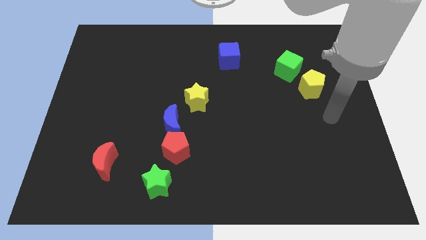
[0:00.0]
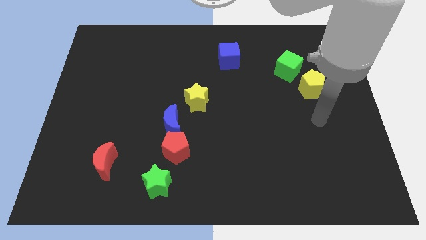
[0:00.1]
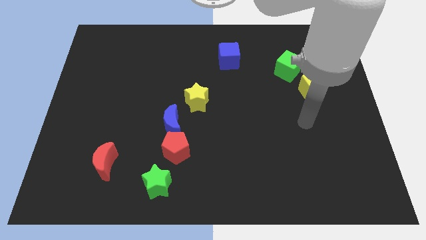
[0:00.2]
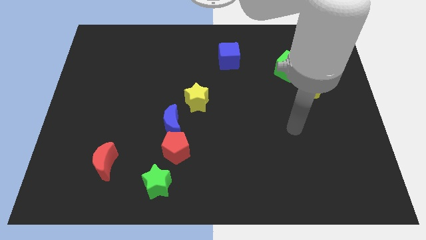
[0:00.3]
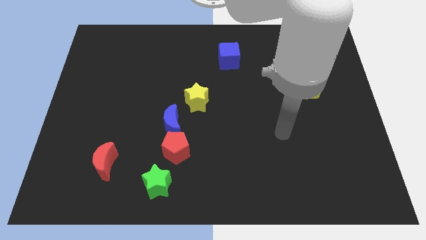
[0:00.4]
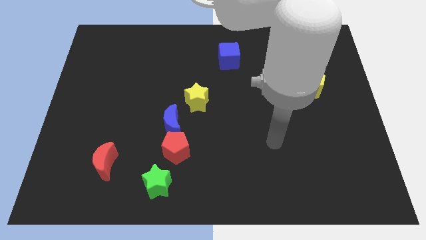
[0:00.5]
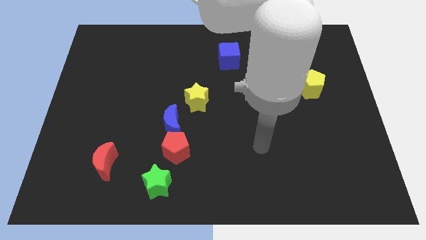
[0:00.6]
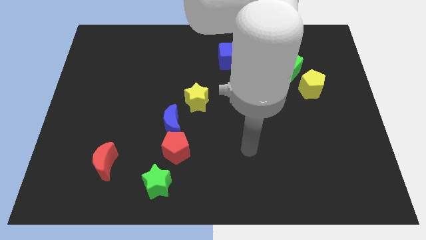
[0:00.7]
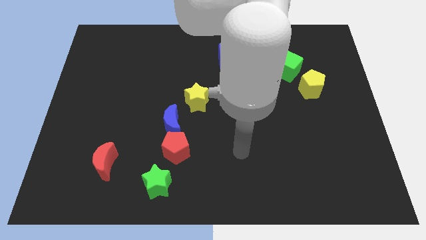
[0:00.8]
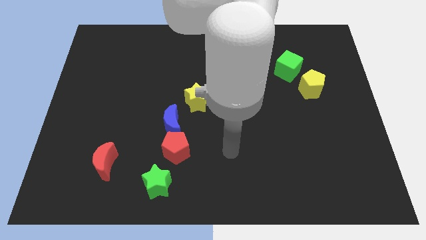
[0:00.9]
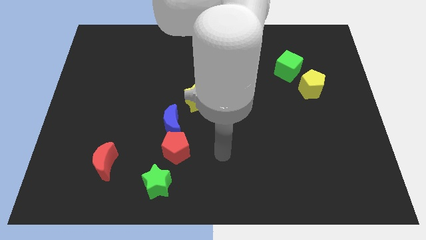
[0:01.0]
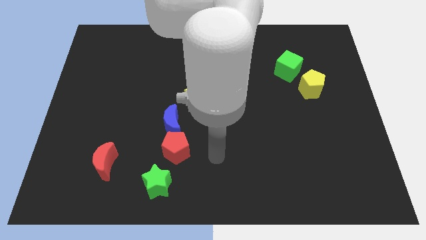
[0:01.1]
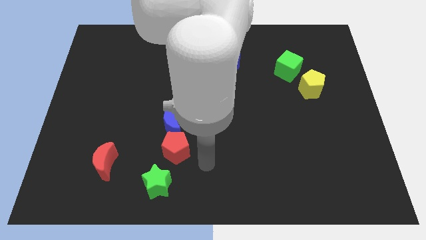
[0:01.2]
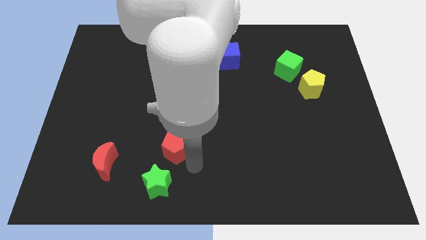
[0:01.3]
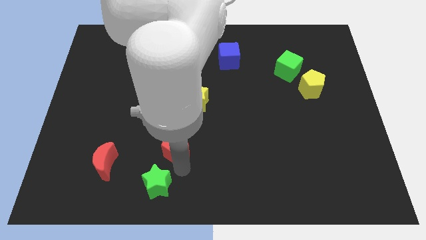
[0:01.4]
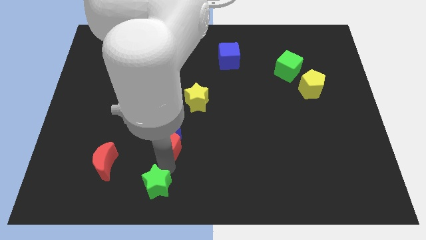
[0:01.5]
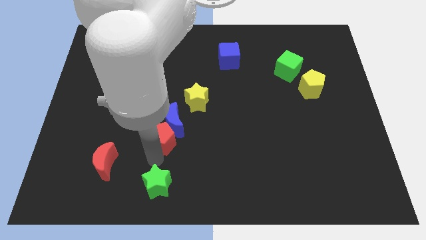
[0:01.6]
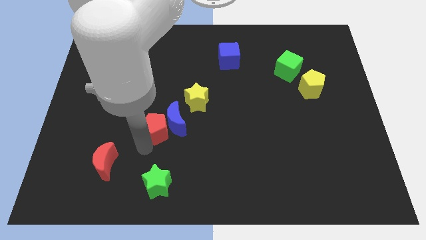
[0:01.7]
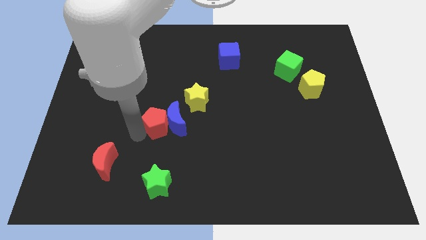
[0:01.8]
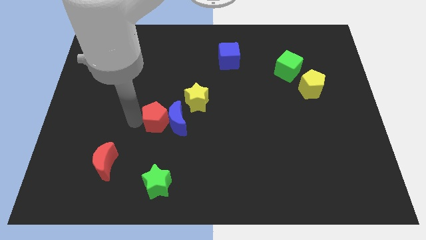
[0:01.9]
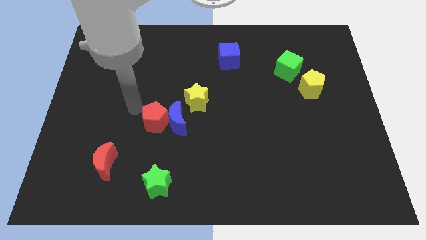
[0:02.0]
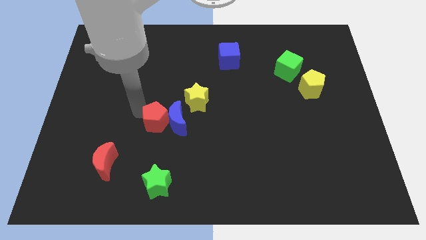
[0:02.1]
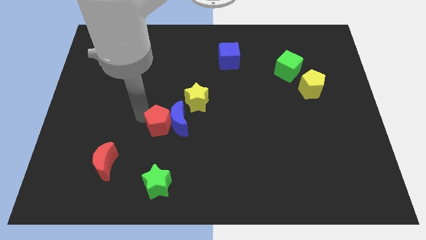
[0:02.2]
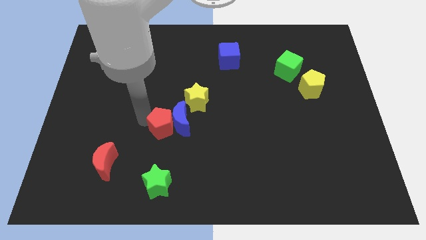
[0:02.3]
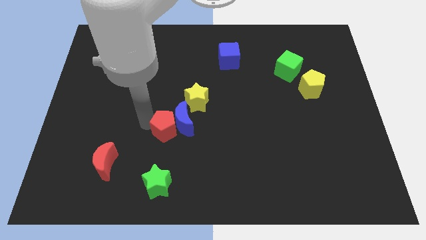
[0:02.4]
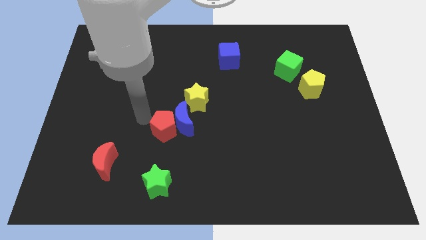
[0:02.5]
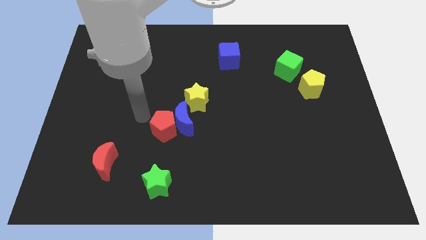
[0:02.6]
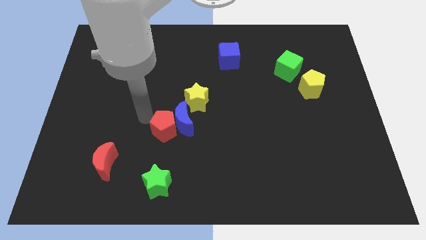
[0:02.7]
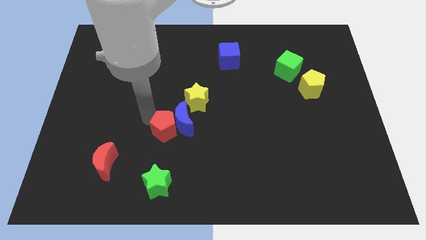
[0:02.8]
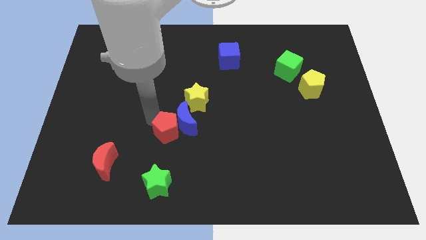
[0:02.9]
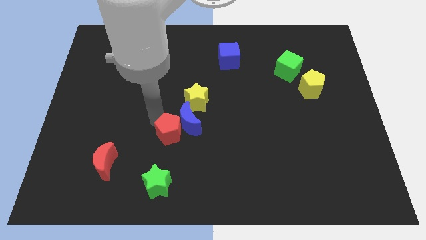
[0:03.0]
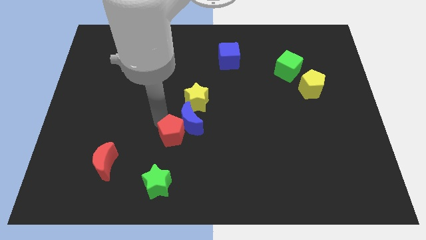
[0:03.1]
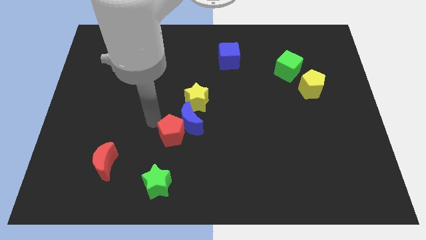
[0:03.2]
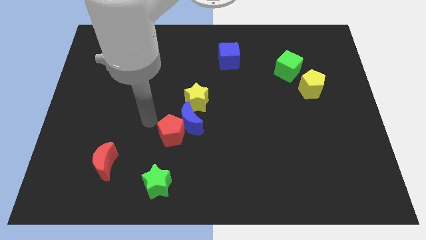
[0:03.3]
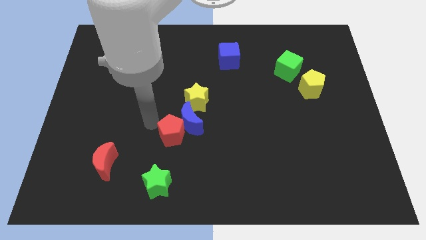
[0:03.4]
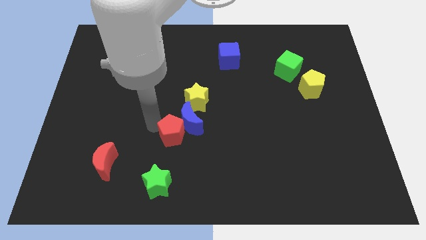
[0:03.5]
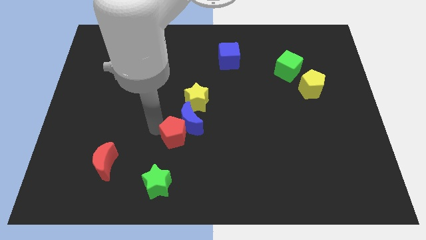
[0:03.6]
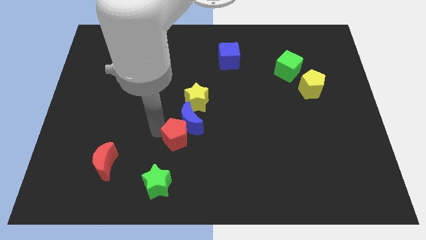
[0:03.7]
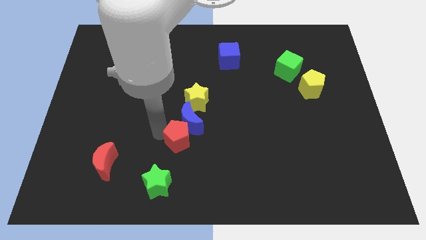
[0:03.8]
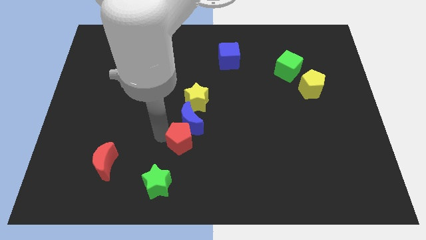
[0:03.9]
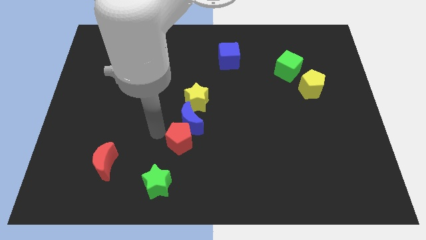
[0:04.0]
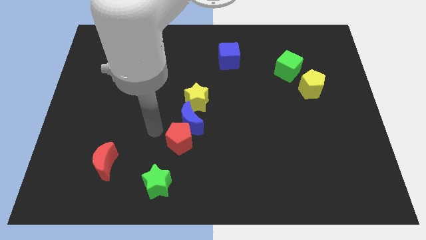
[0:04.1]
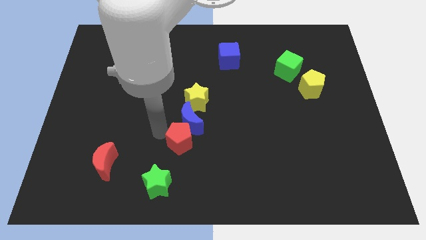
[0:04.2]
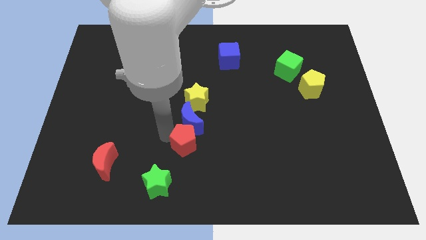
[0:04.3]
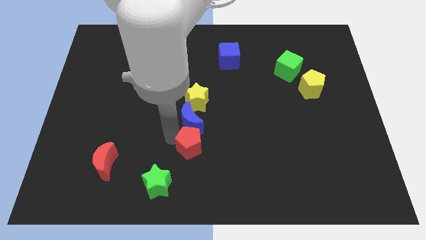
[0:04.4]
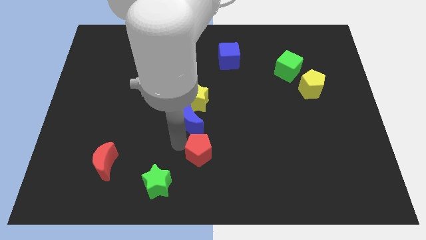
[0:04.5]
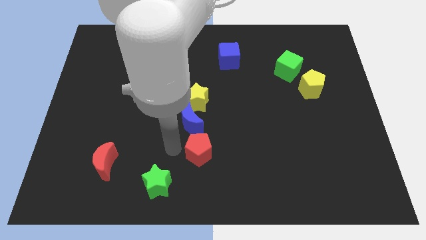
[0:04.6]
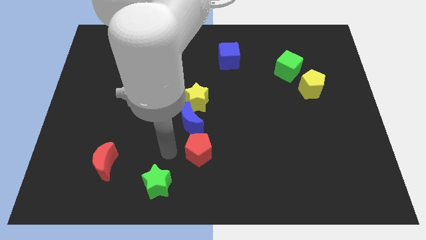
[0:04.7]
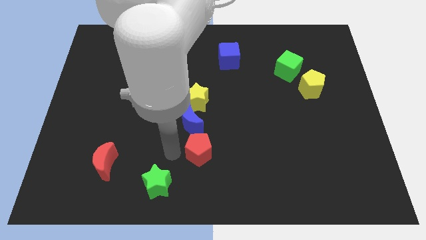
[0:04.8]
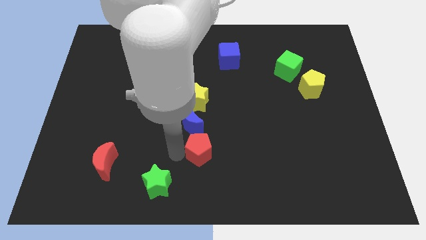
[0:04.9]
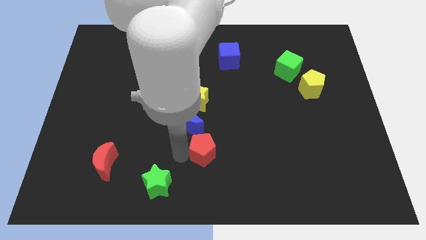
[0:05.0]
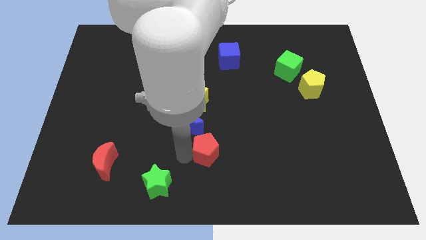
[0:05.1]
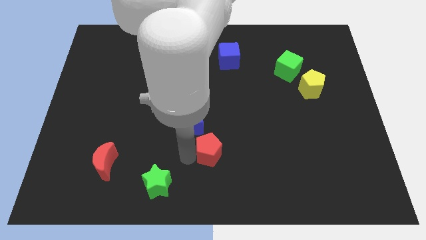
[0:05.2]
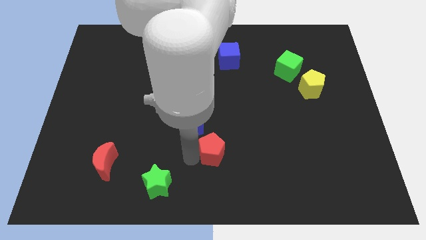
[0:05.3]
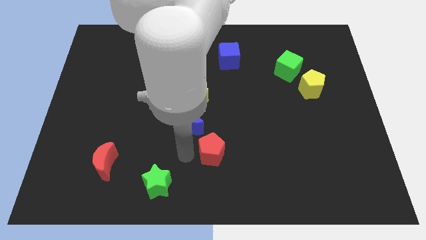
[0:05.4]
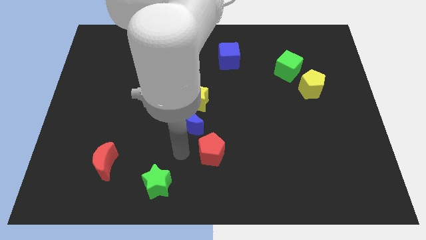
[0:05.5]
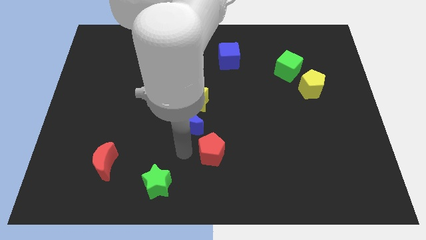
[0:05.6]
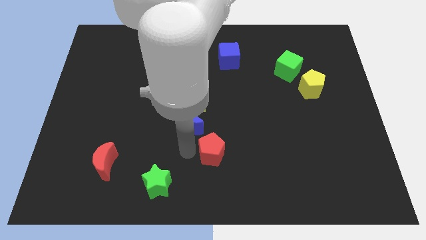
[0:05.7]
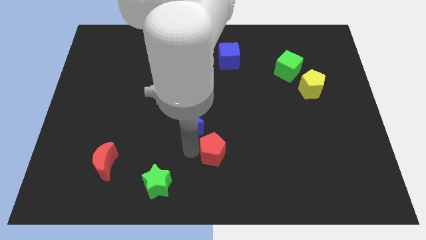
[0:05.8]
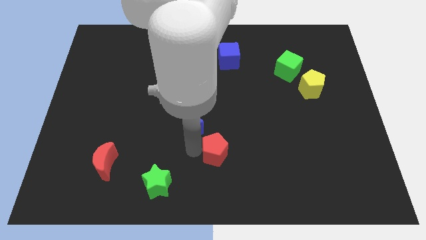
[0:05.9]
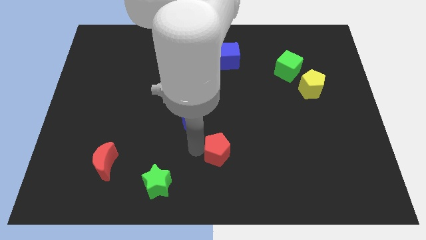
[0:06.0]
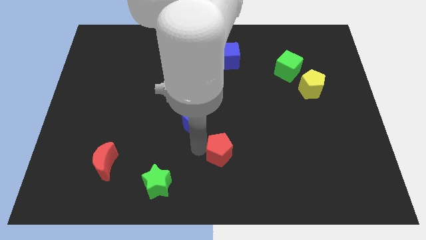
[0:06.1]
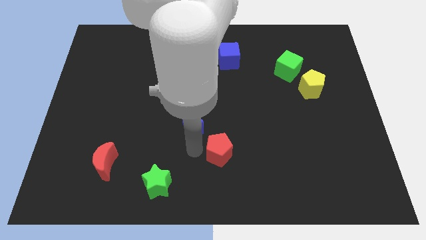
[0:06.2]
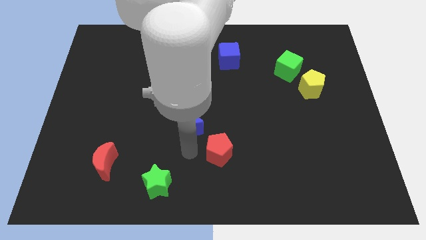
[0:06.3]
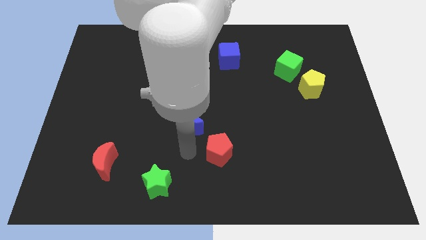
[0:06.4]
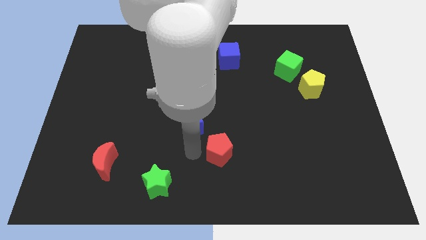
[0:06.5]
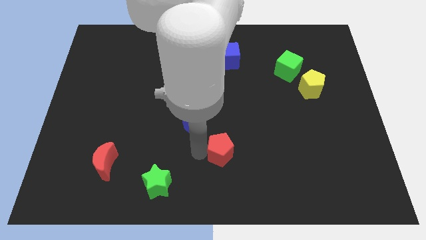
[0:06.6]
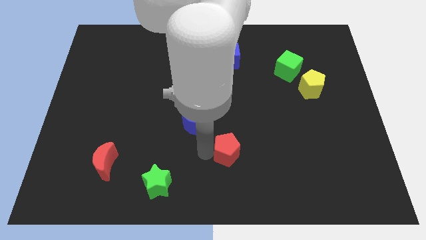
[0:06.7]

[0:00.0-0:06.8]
separate the red pentagon from the blue moon and green star

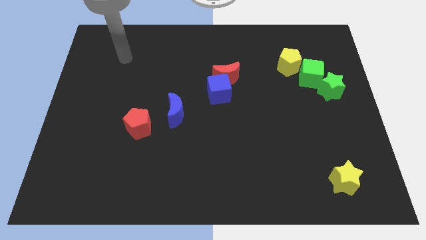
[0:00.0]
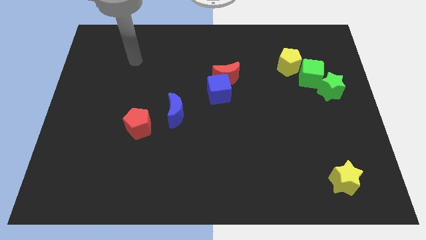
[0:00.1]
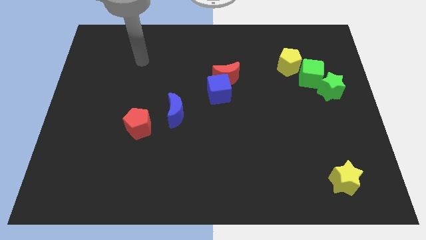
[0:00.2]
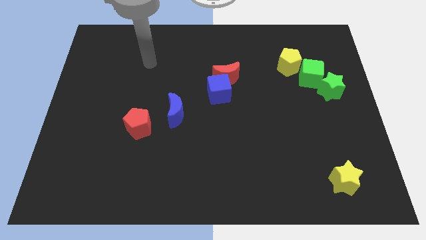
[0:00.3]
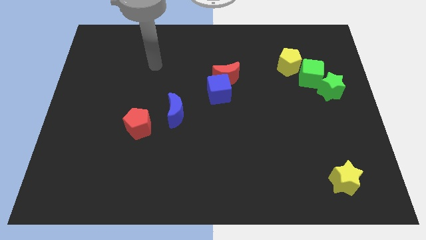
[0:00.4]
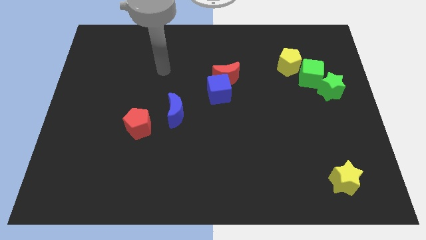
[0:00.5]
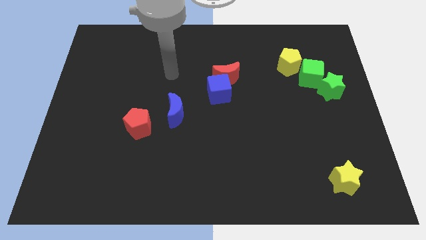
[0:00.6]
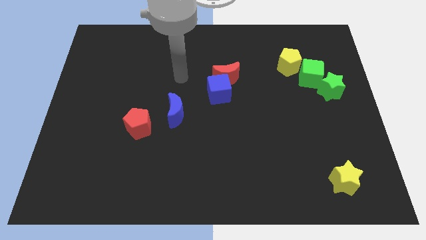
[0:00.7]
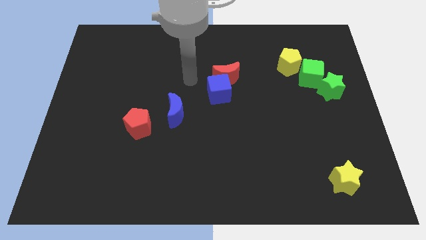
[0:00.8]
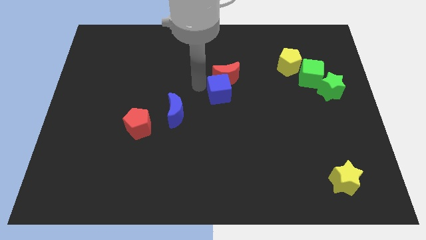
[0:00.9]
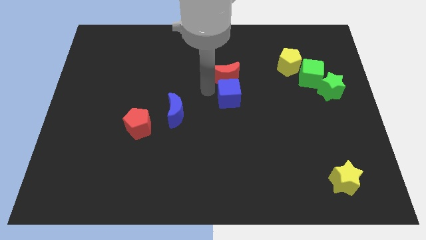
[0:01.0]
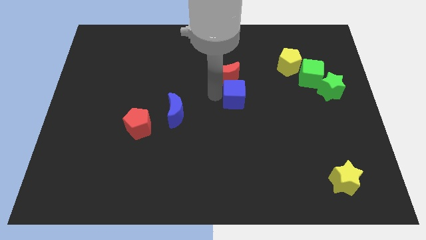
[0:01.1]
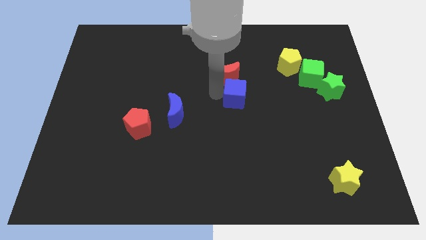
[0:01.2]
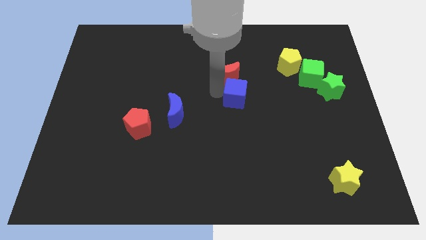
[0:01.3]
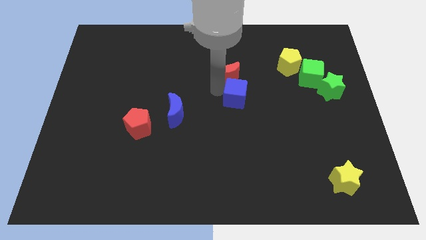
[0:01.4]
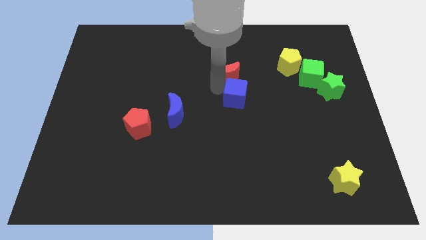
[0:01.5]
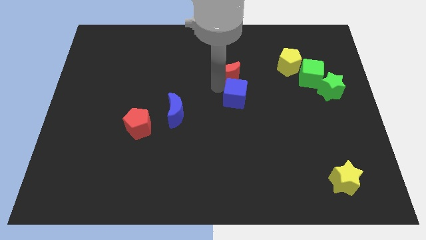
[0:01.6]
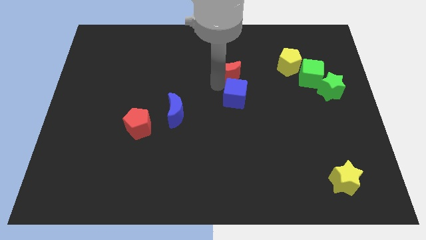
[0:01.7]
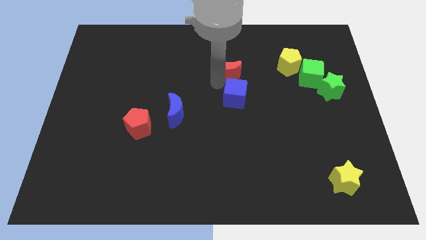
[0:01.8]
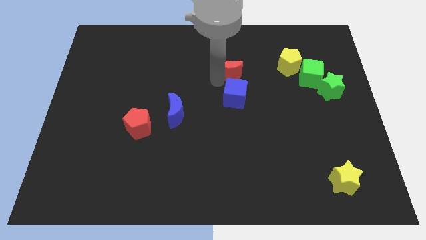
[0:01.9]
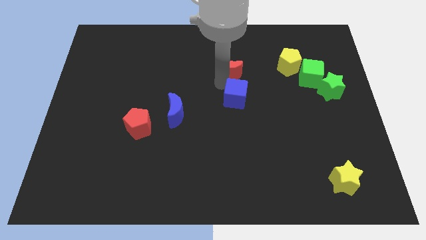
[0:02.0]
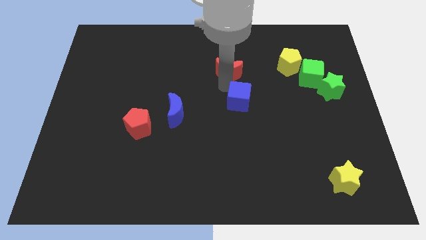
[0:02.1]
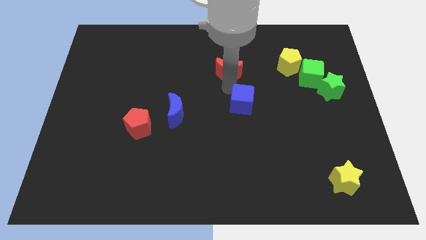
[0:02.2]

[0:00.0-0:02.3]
pull the red moon apart from the blue cube

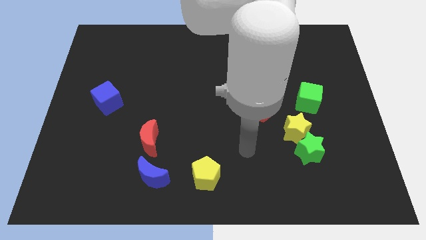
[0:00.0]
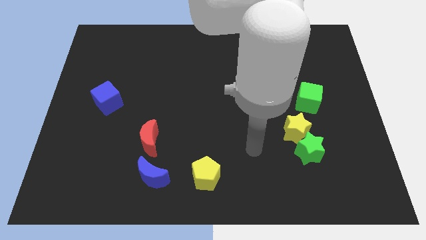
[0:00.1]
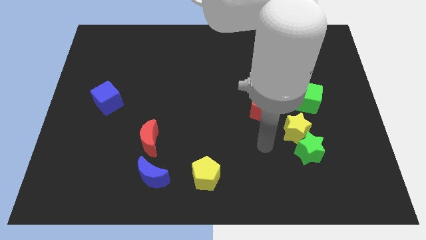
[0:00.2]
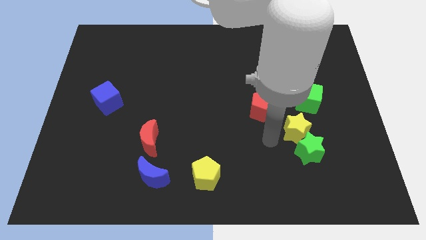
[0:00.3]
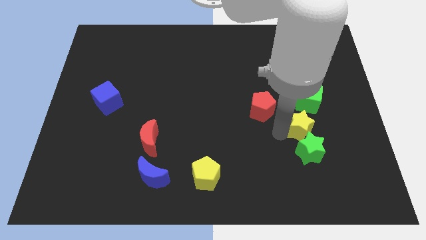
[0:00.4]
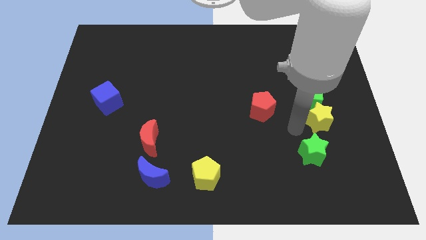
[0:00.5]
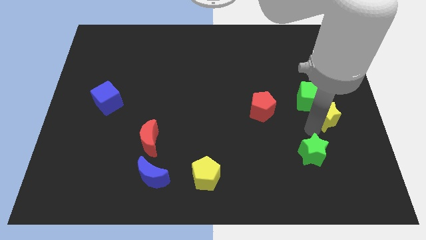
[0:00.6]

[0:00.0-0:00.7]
pull the green star apart from the yellow star
